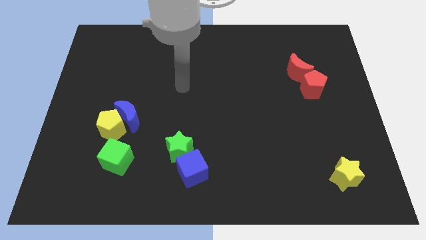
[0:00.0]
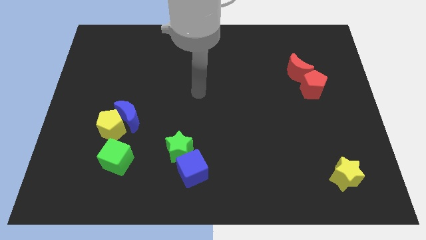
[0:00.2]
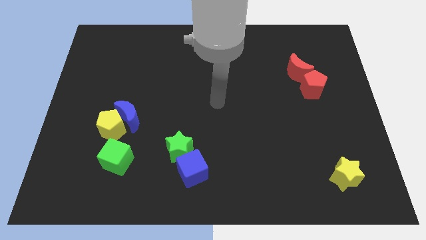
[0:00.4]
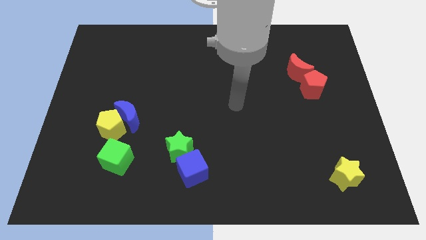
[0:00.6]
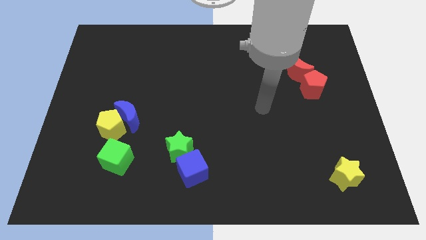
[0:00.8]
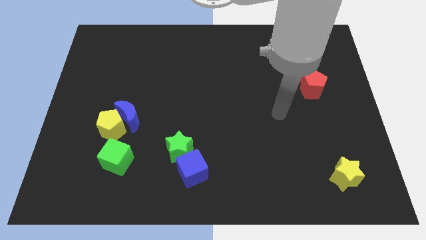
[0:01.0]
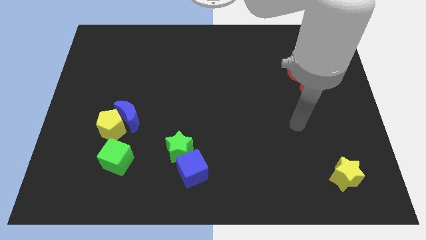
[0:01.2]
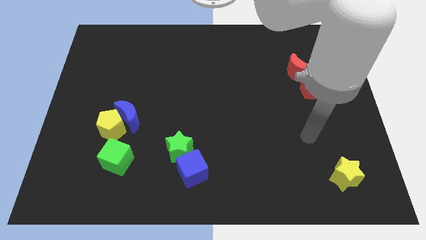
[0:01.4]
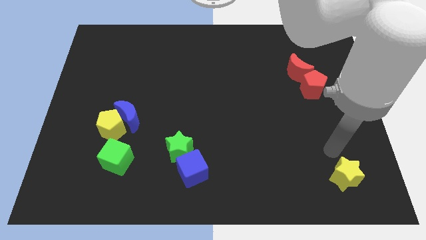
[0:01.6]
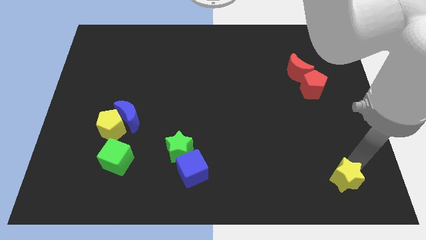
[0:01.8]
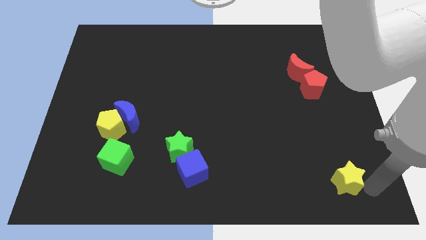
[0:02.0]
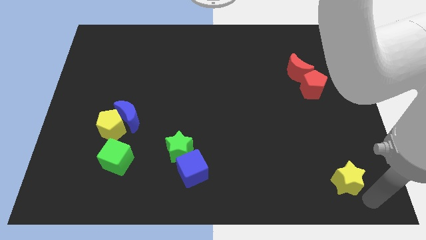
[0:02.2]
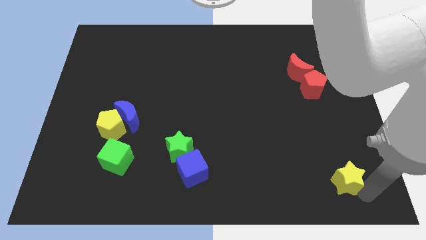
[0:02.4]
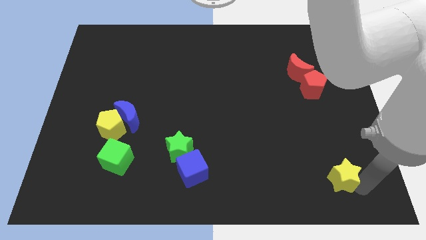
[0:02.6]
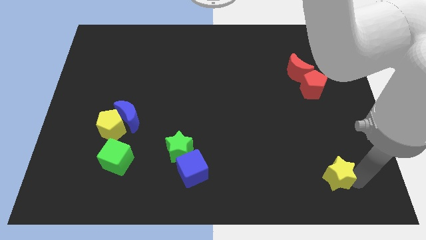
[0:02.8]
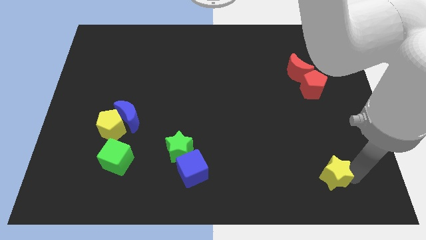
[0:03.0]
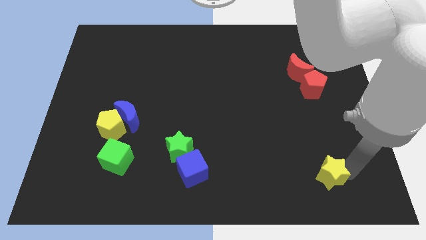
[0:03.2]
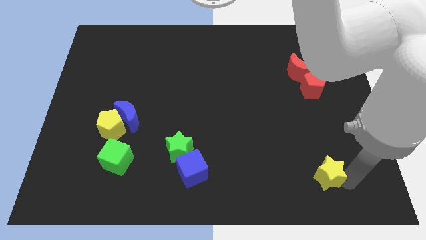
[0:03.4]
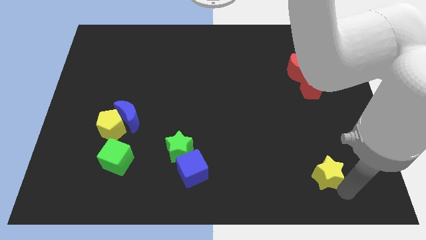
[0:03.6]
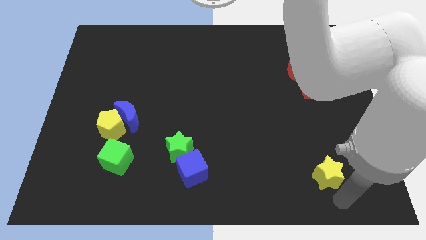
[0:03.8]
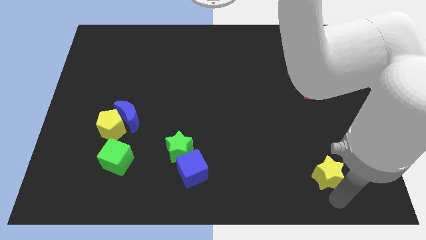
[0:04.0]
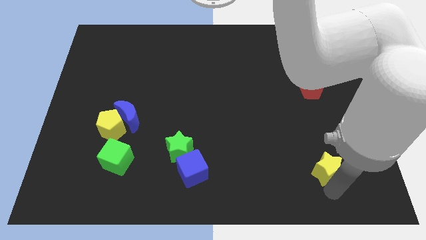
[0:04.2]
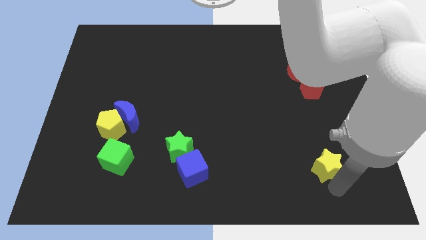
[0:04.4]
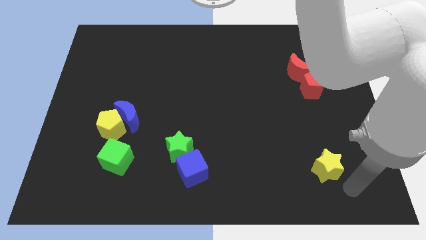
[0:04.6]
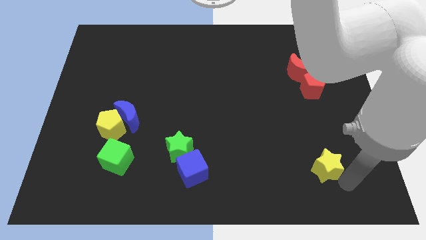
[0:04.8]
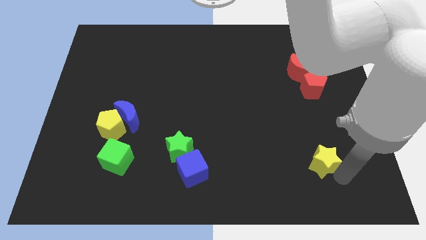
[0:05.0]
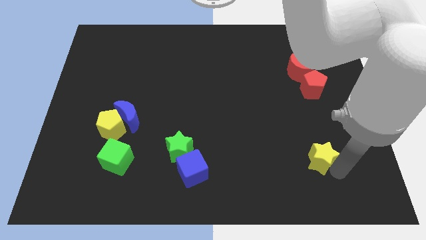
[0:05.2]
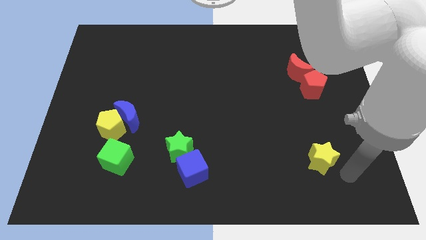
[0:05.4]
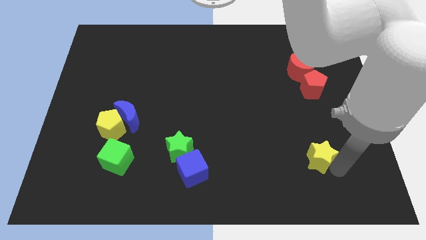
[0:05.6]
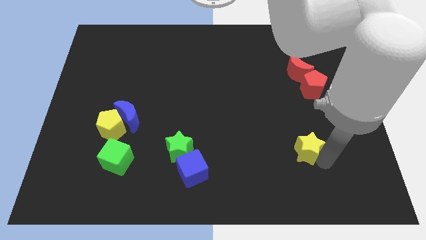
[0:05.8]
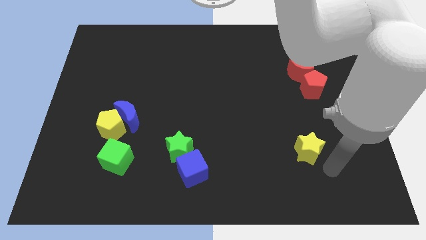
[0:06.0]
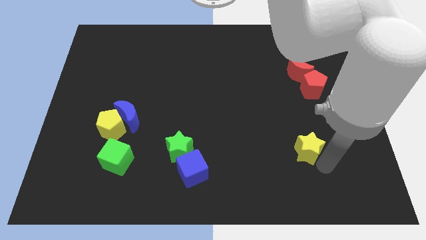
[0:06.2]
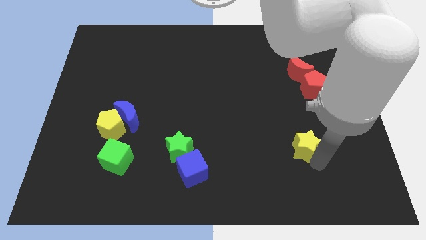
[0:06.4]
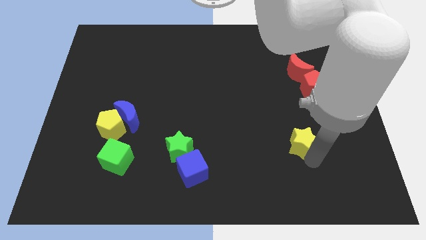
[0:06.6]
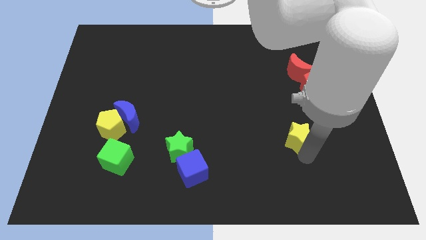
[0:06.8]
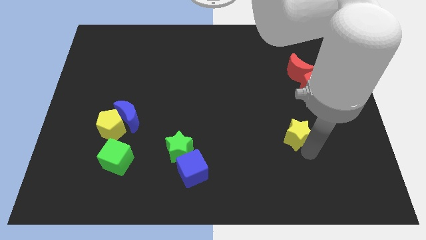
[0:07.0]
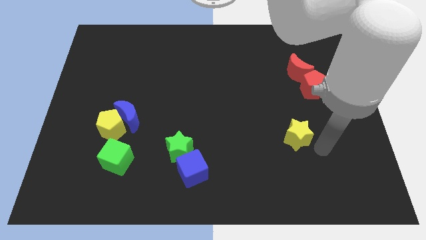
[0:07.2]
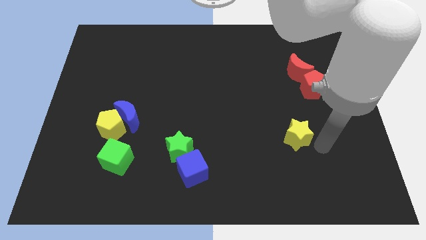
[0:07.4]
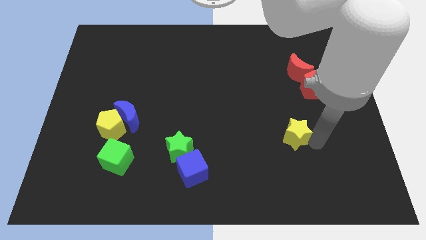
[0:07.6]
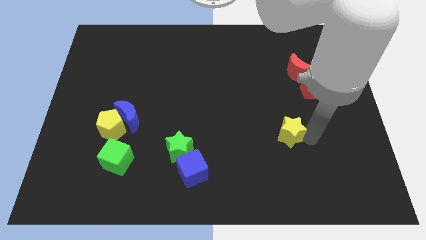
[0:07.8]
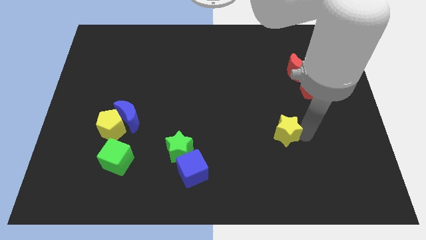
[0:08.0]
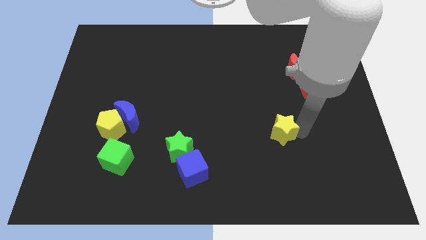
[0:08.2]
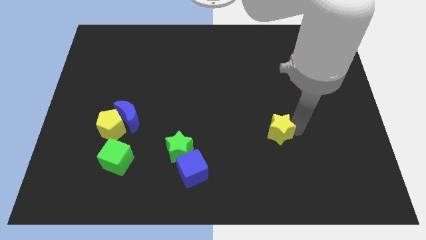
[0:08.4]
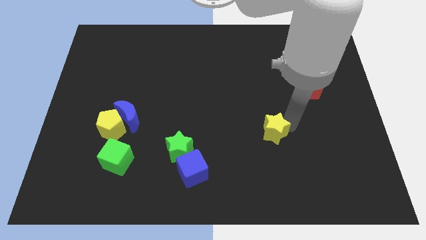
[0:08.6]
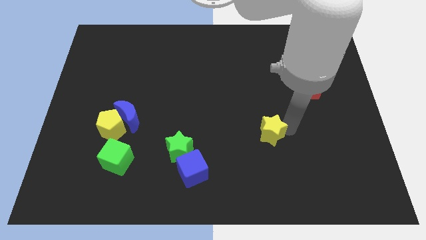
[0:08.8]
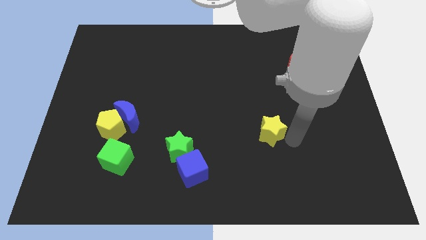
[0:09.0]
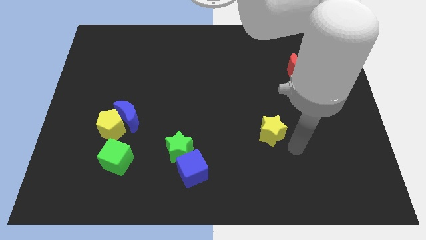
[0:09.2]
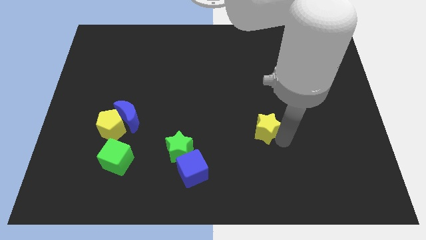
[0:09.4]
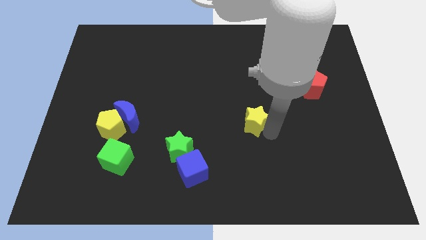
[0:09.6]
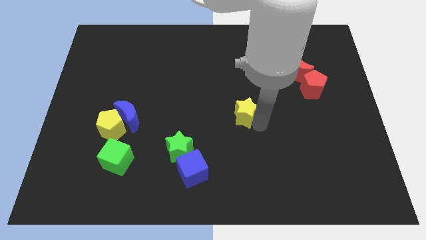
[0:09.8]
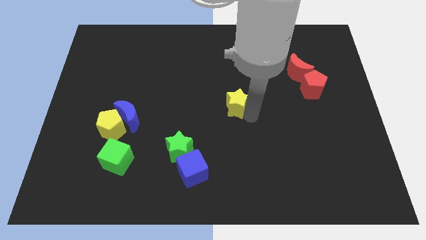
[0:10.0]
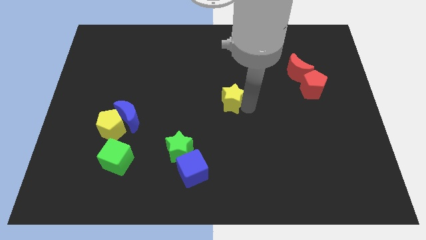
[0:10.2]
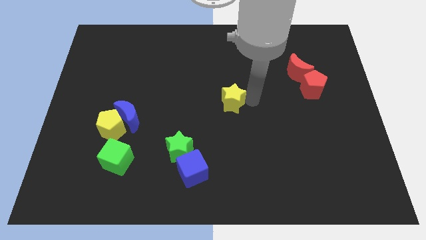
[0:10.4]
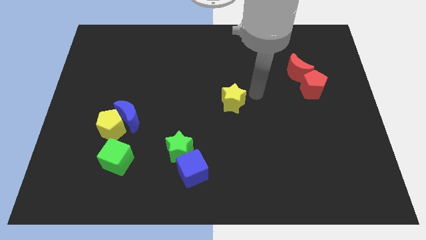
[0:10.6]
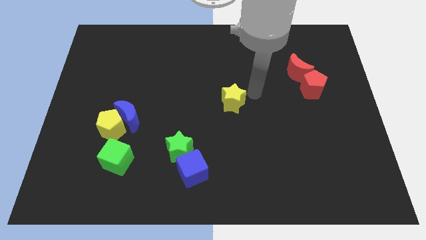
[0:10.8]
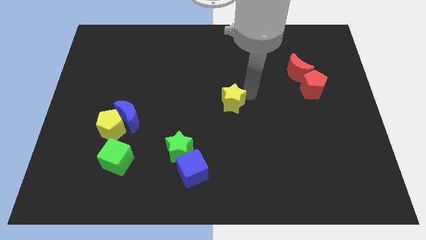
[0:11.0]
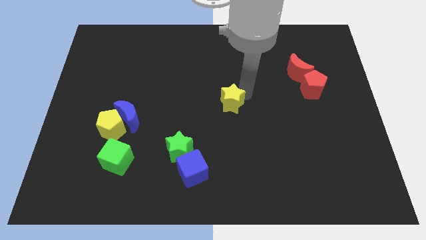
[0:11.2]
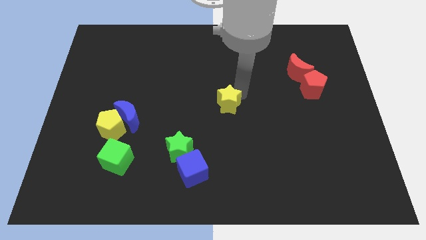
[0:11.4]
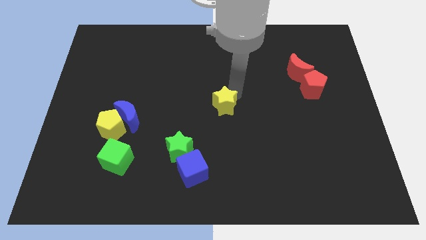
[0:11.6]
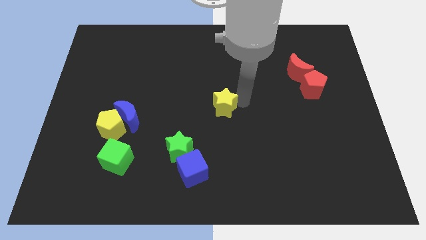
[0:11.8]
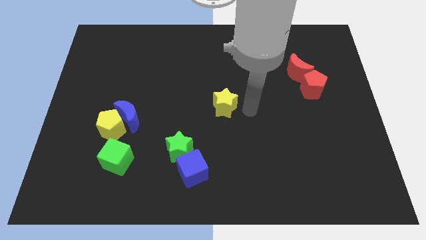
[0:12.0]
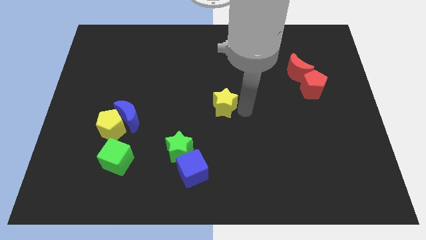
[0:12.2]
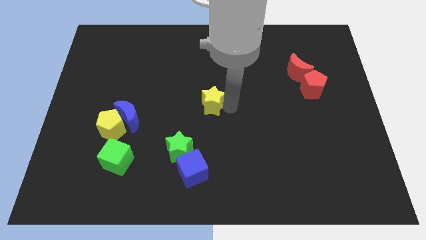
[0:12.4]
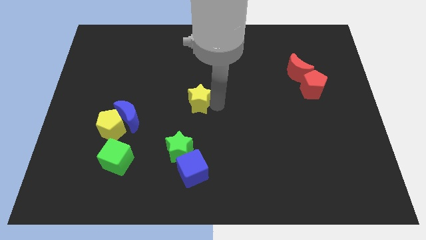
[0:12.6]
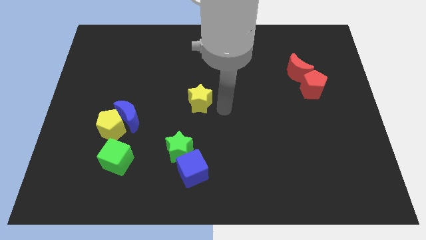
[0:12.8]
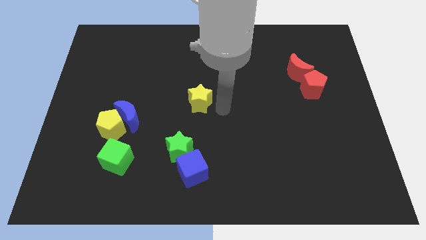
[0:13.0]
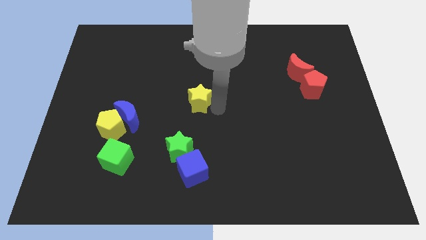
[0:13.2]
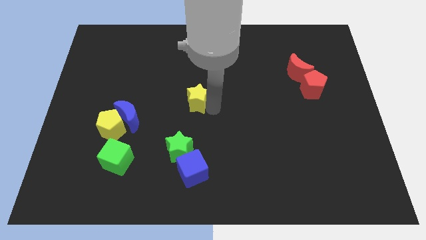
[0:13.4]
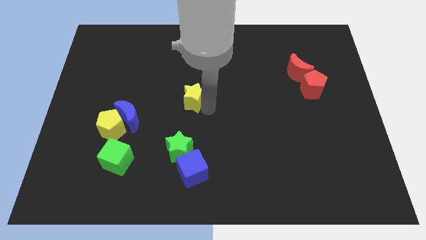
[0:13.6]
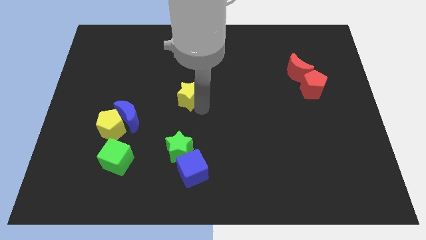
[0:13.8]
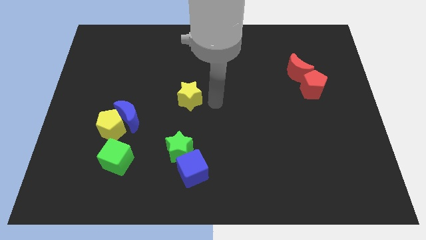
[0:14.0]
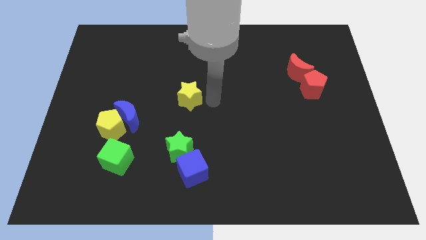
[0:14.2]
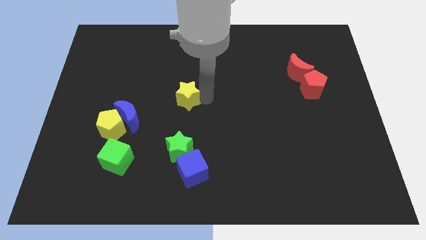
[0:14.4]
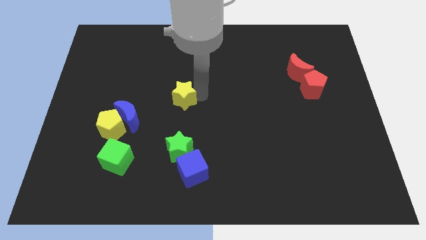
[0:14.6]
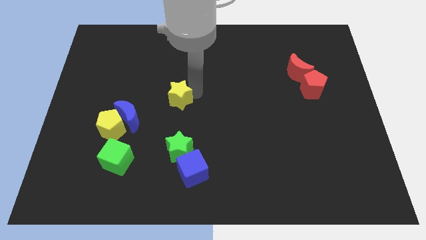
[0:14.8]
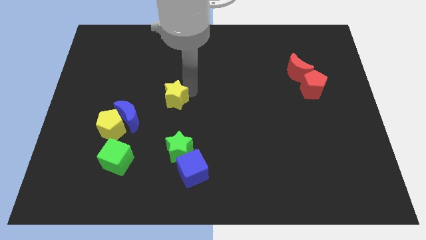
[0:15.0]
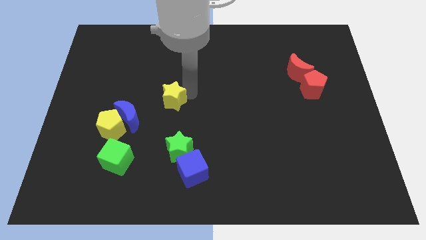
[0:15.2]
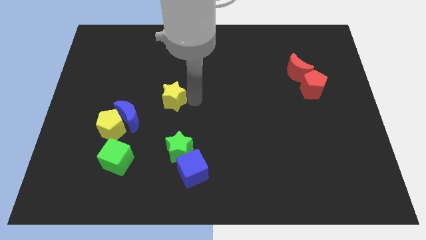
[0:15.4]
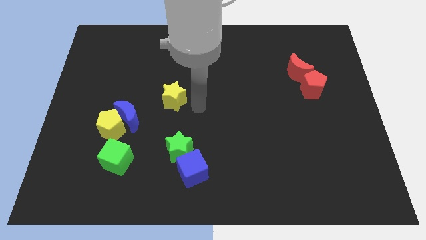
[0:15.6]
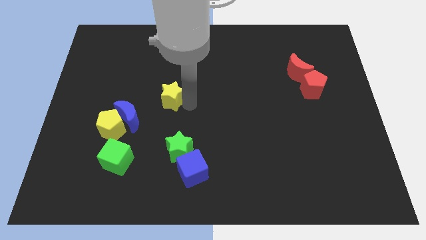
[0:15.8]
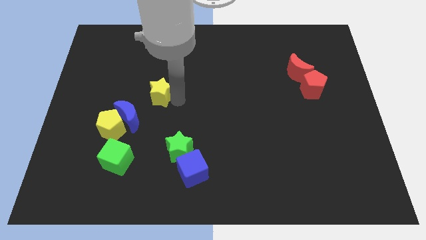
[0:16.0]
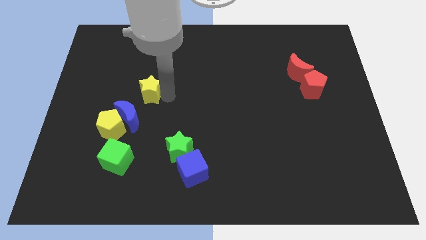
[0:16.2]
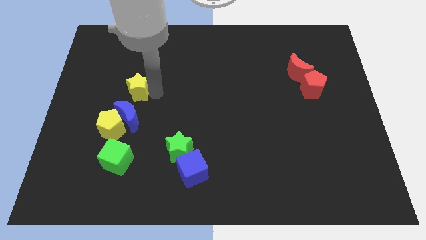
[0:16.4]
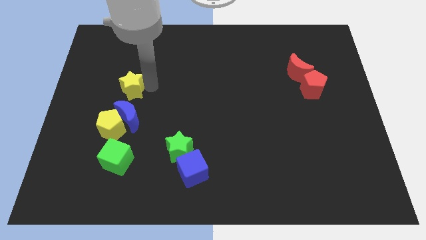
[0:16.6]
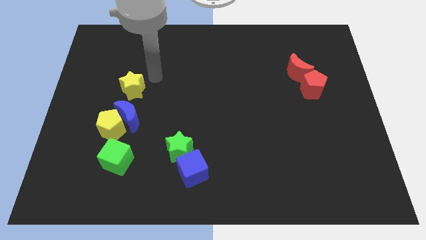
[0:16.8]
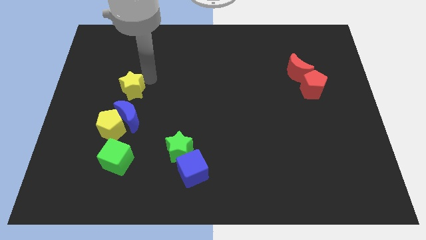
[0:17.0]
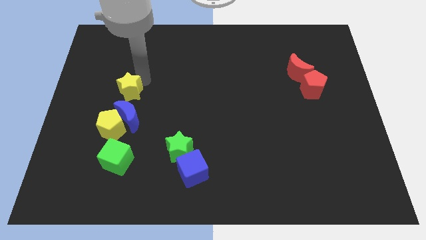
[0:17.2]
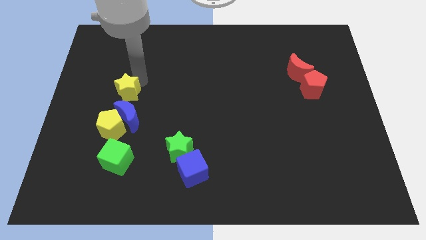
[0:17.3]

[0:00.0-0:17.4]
put the yellow star to the top left side of the blue moon
